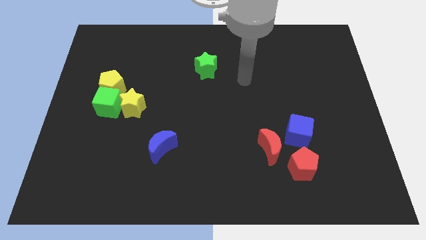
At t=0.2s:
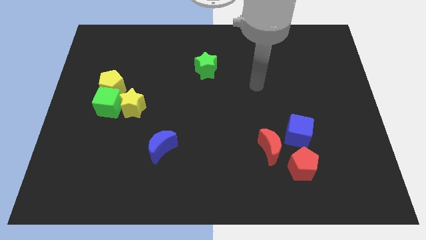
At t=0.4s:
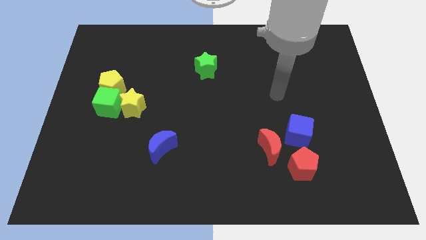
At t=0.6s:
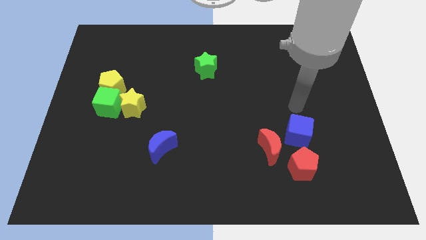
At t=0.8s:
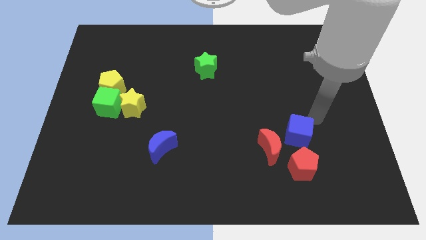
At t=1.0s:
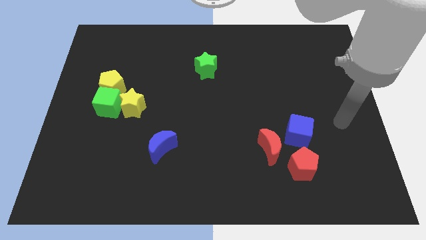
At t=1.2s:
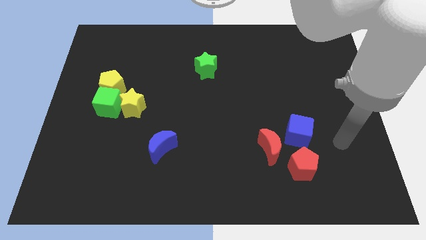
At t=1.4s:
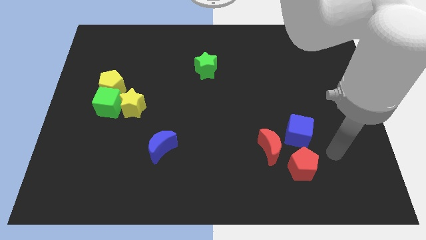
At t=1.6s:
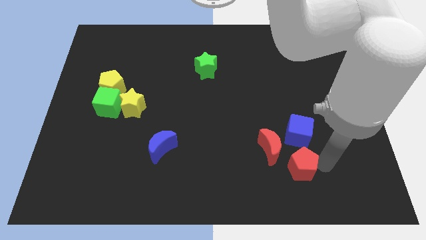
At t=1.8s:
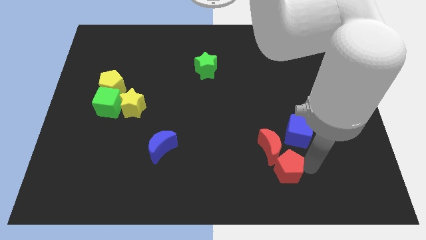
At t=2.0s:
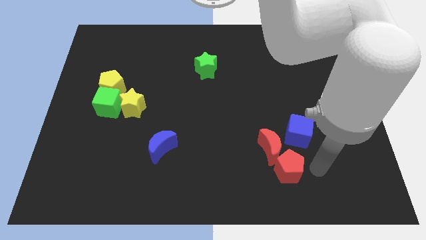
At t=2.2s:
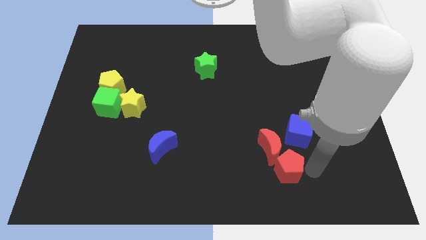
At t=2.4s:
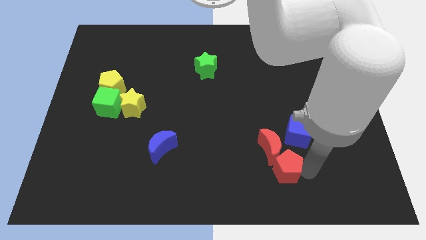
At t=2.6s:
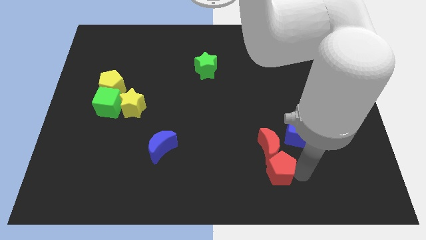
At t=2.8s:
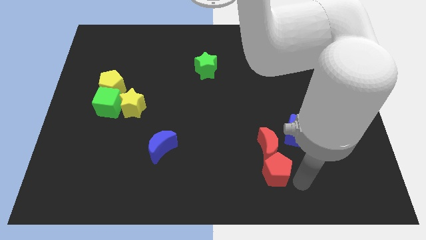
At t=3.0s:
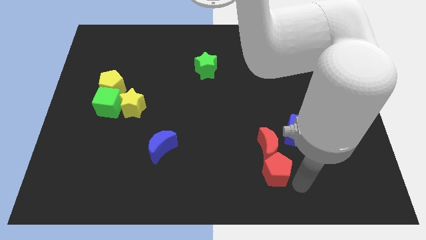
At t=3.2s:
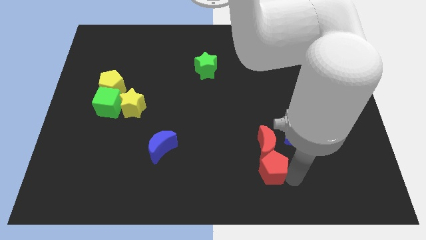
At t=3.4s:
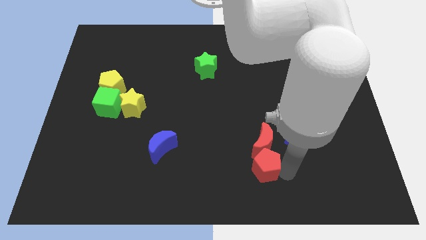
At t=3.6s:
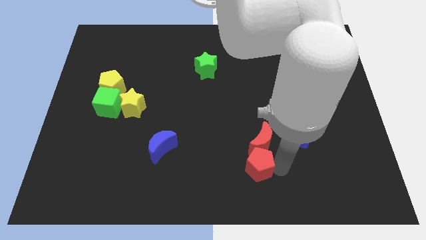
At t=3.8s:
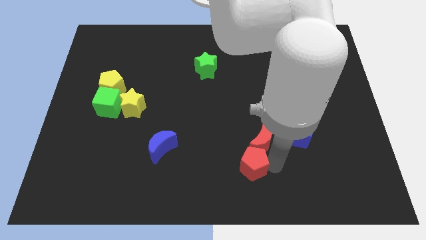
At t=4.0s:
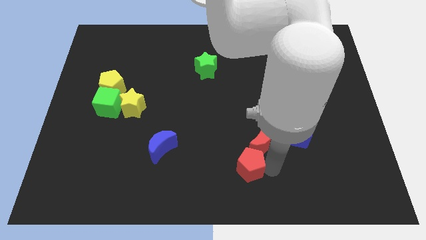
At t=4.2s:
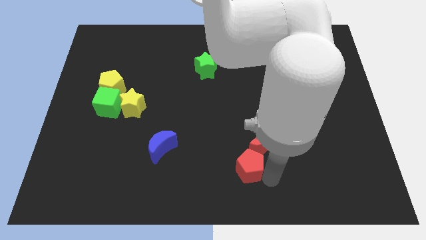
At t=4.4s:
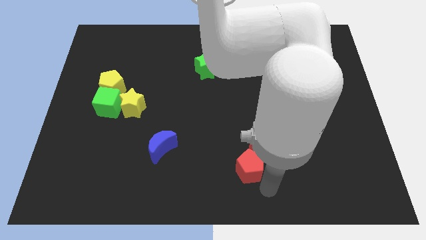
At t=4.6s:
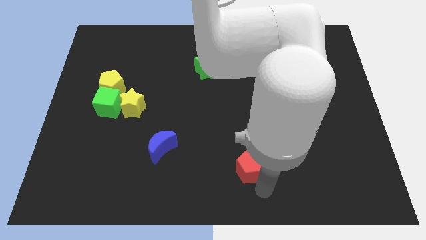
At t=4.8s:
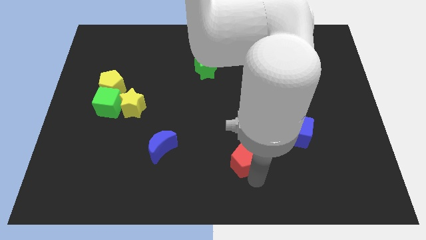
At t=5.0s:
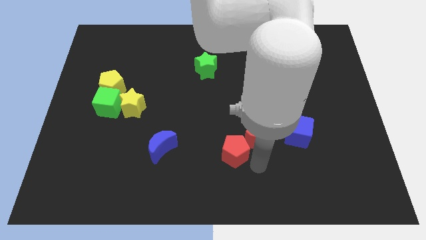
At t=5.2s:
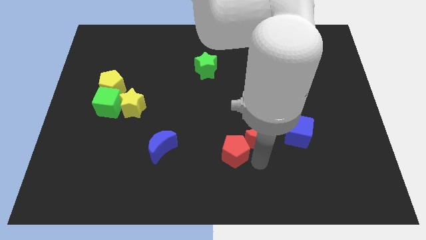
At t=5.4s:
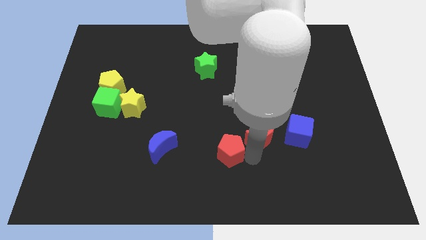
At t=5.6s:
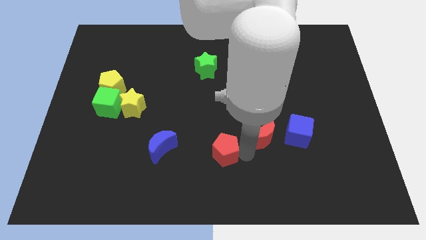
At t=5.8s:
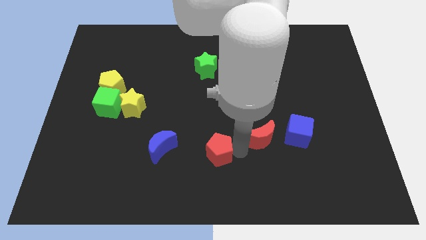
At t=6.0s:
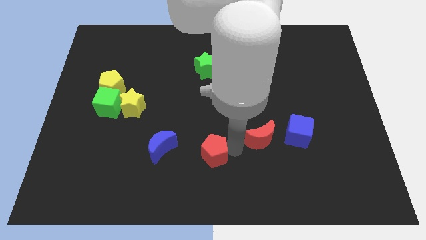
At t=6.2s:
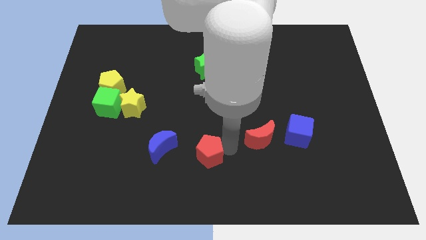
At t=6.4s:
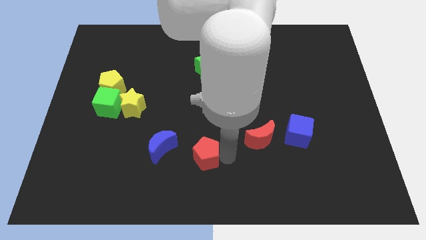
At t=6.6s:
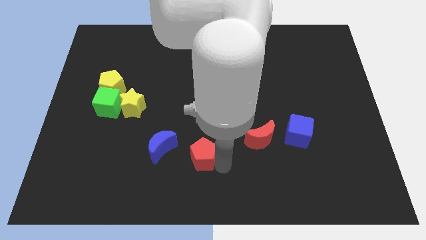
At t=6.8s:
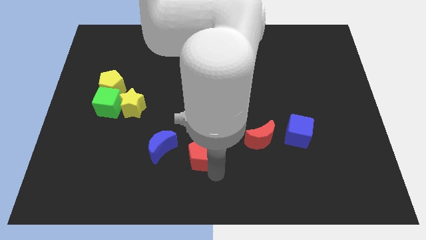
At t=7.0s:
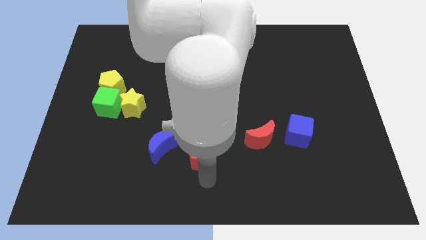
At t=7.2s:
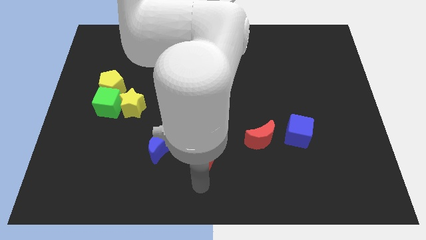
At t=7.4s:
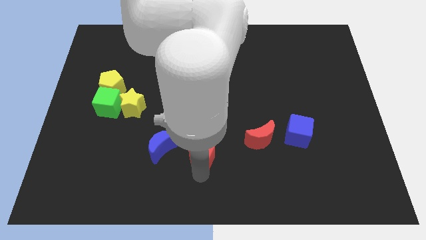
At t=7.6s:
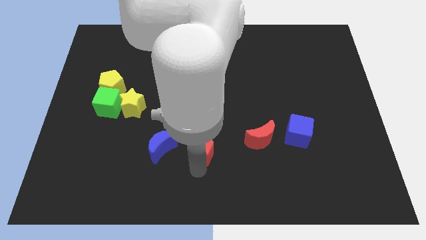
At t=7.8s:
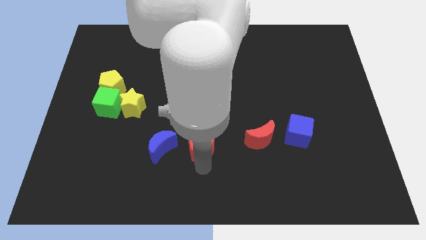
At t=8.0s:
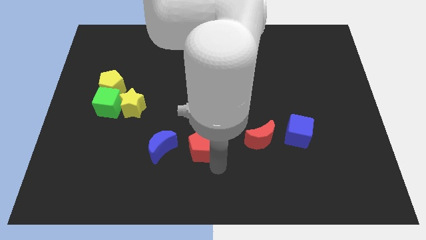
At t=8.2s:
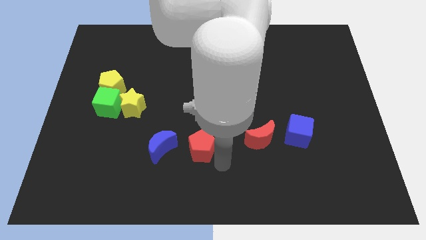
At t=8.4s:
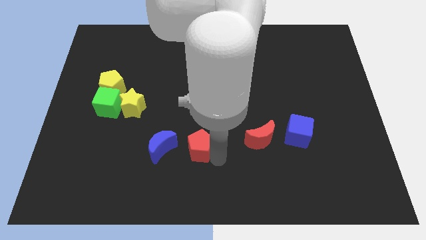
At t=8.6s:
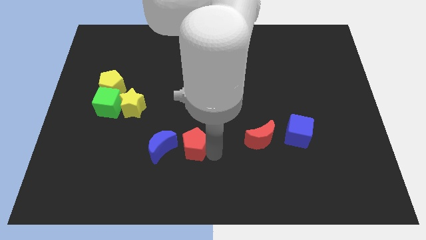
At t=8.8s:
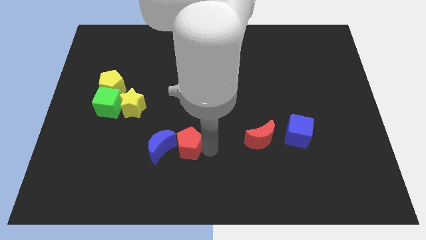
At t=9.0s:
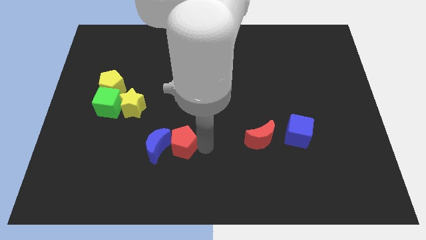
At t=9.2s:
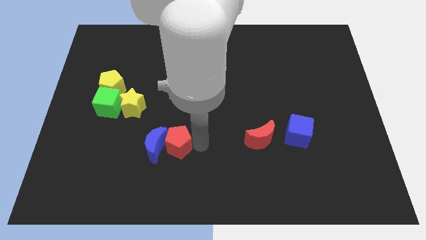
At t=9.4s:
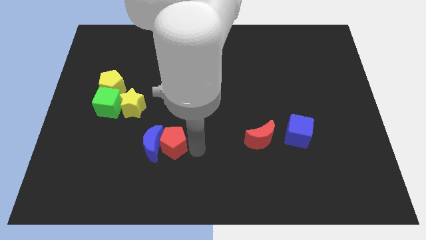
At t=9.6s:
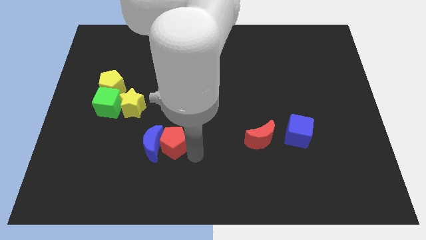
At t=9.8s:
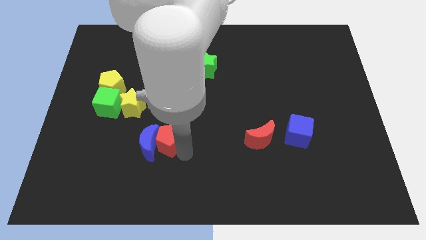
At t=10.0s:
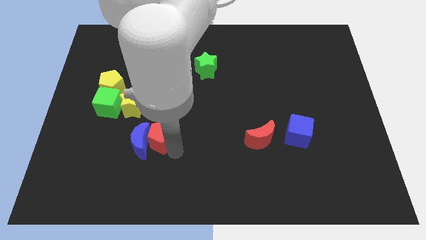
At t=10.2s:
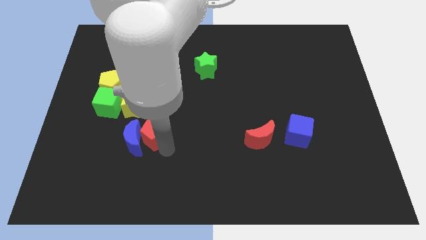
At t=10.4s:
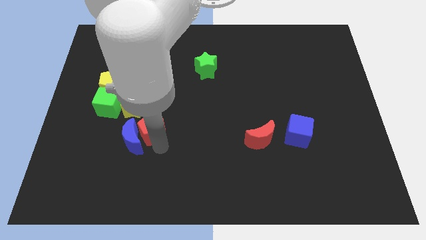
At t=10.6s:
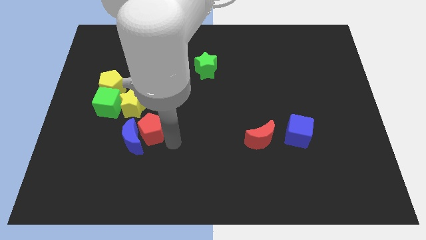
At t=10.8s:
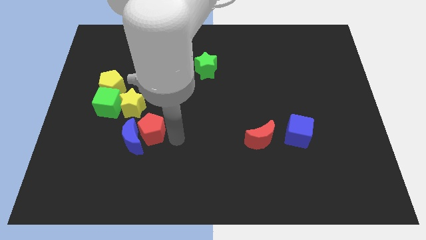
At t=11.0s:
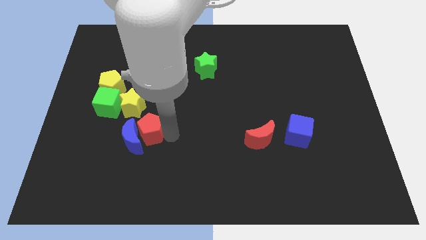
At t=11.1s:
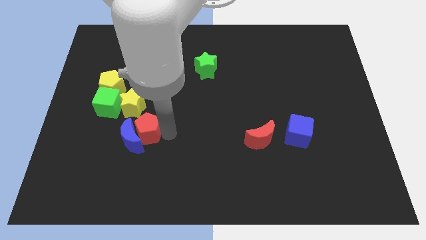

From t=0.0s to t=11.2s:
push the red pentagon to the bottom right side of the green cube

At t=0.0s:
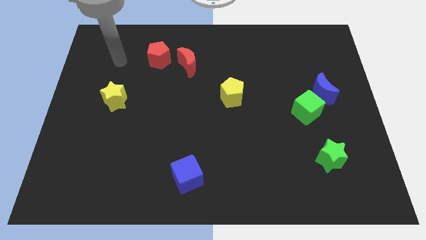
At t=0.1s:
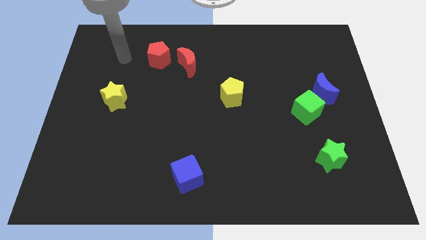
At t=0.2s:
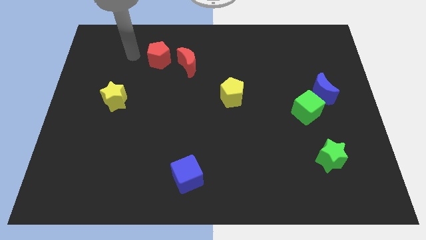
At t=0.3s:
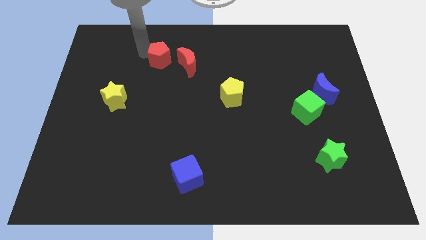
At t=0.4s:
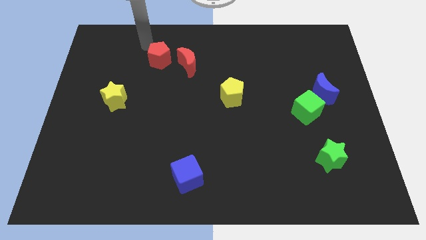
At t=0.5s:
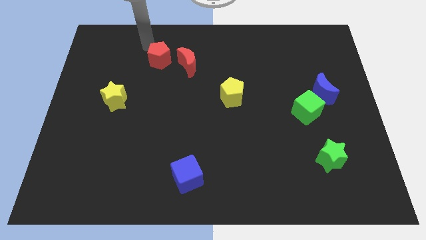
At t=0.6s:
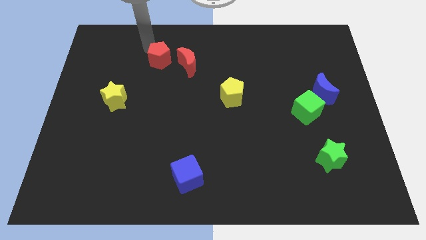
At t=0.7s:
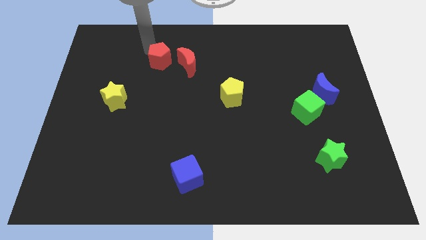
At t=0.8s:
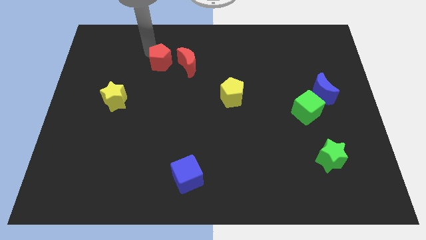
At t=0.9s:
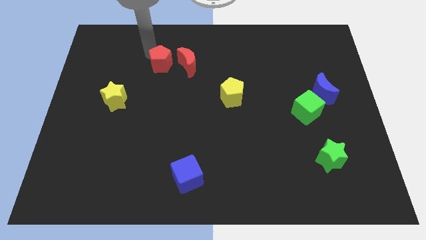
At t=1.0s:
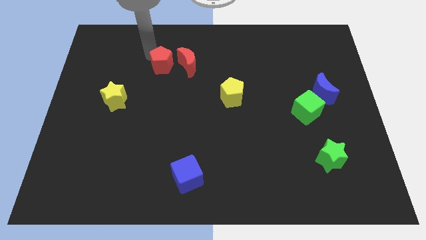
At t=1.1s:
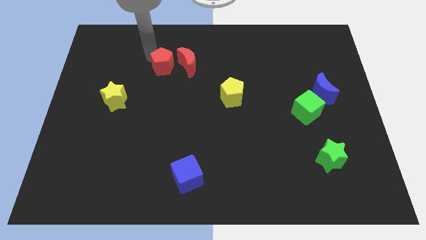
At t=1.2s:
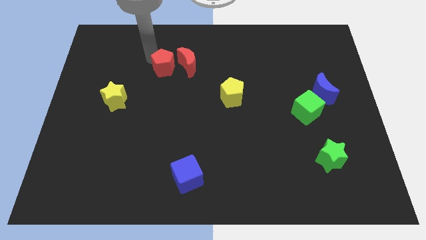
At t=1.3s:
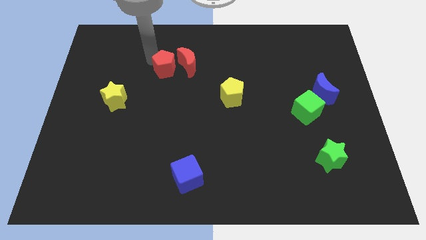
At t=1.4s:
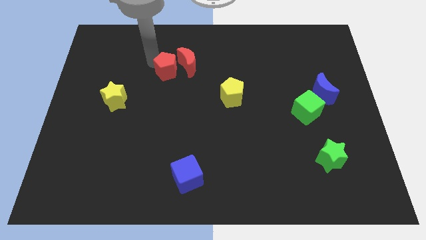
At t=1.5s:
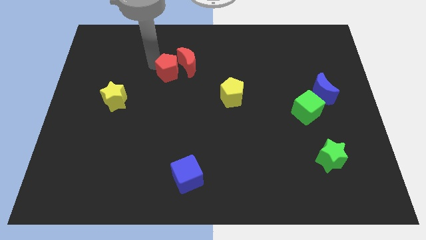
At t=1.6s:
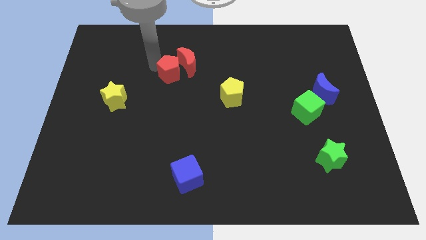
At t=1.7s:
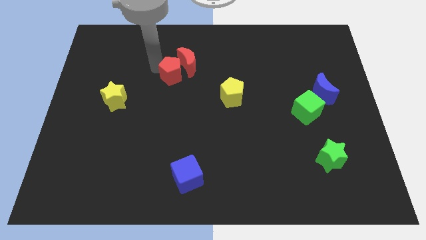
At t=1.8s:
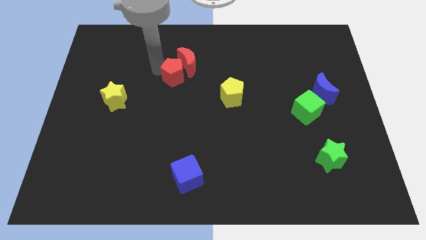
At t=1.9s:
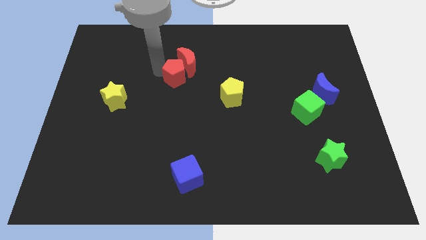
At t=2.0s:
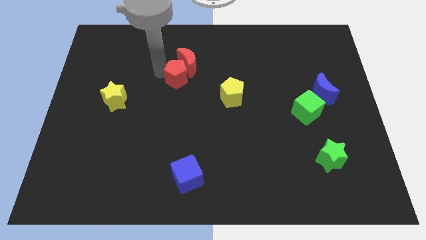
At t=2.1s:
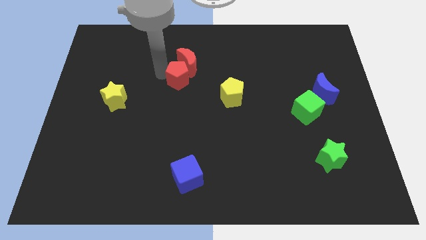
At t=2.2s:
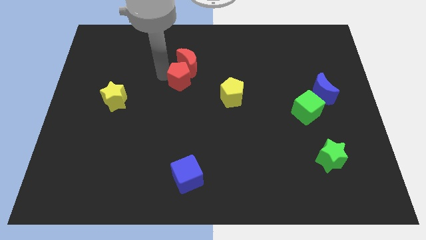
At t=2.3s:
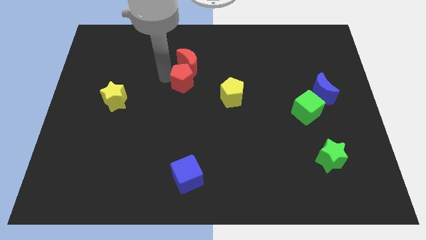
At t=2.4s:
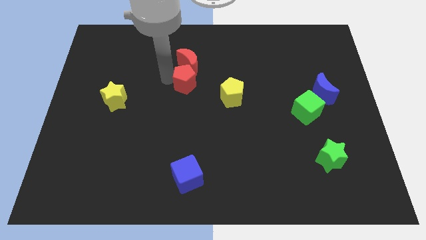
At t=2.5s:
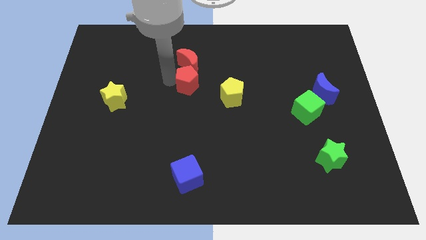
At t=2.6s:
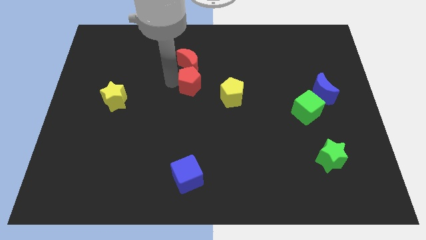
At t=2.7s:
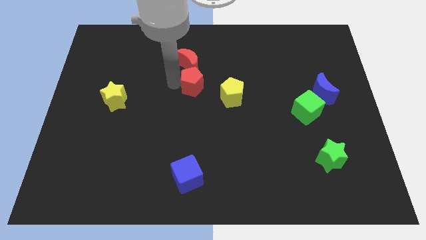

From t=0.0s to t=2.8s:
move the red pentagon to the top left of the yellow pentagon
